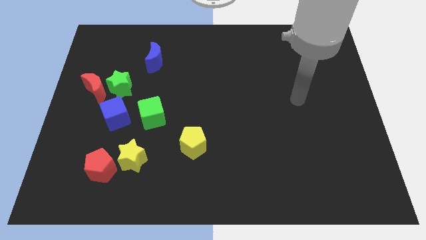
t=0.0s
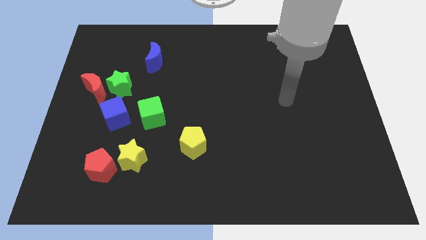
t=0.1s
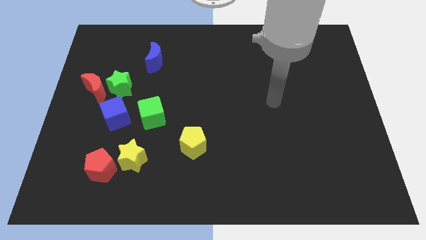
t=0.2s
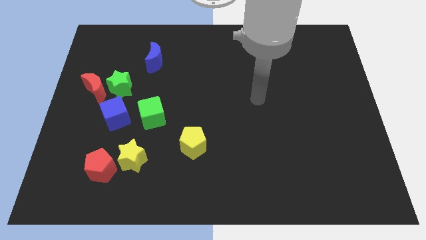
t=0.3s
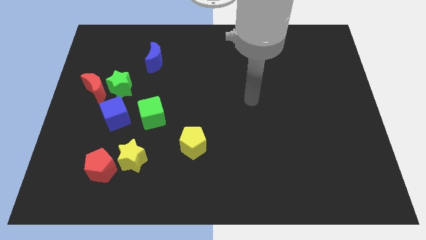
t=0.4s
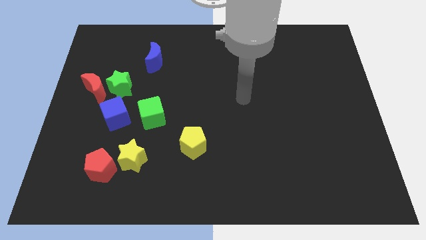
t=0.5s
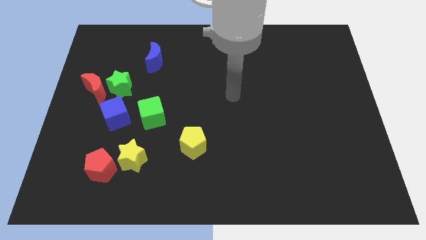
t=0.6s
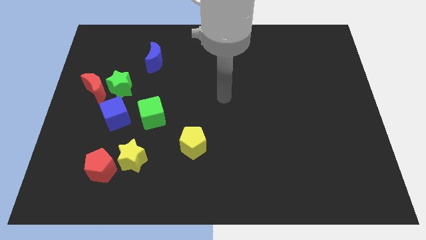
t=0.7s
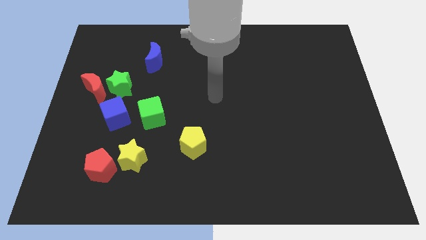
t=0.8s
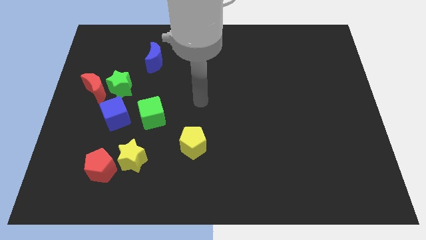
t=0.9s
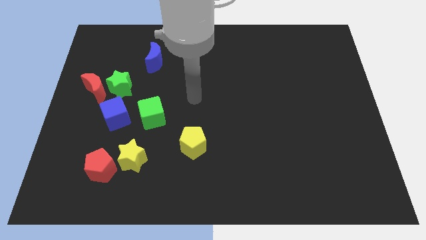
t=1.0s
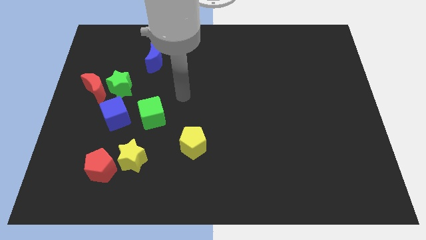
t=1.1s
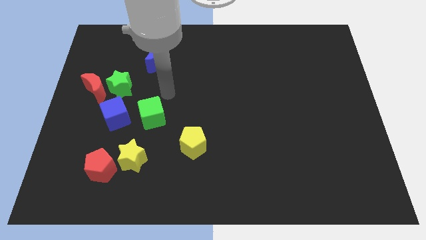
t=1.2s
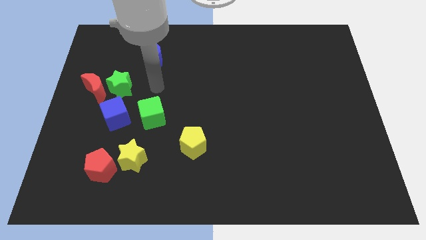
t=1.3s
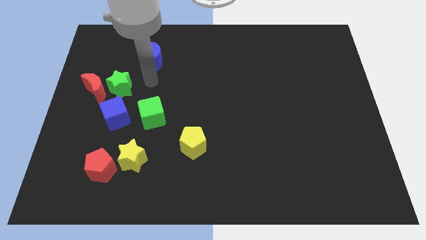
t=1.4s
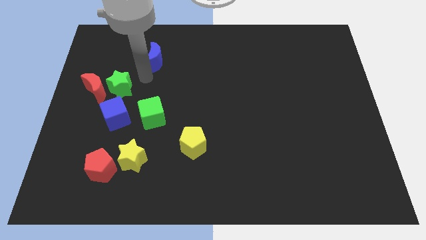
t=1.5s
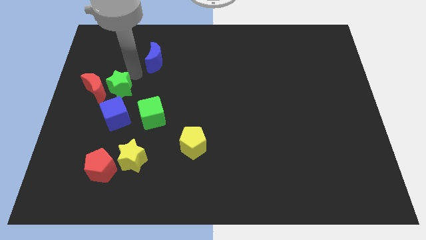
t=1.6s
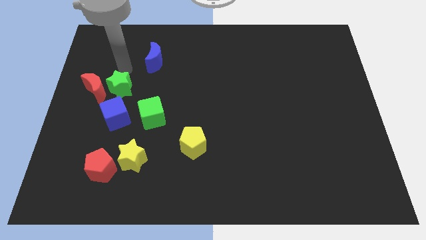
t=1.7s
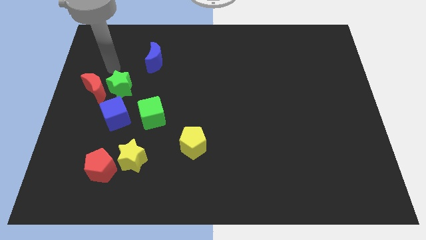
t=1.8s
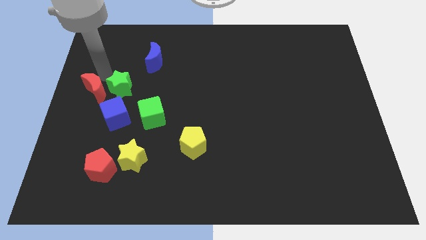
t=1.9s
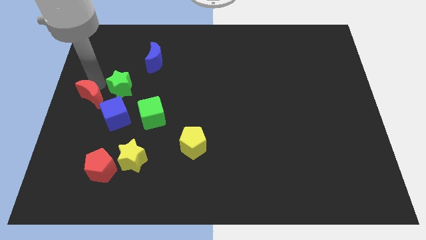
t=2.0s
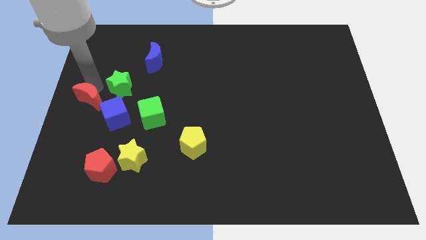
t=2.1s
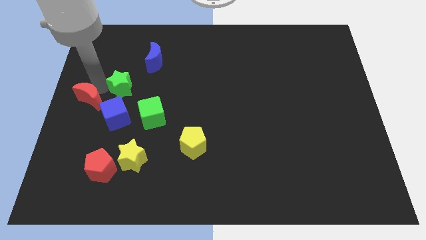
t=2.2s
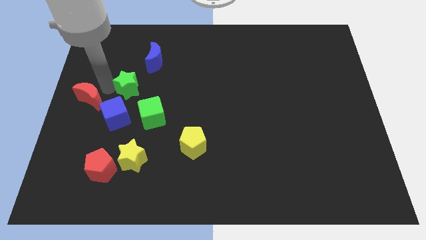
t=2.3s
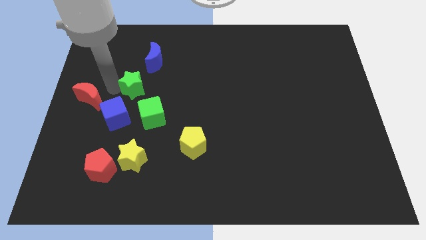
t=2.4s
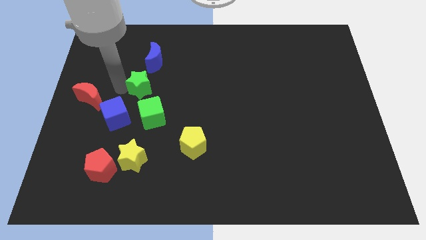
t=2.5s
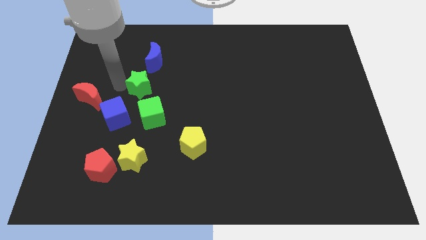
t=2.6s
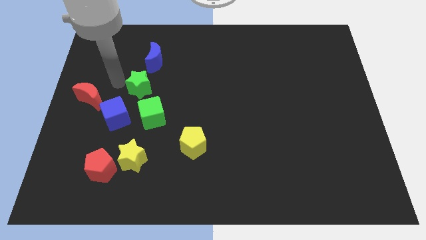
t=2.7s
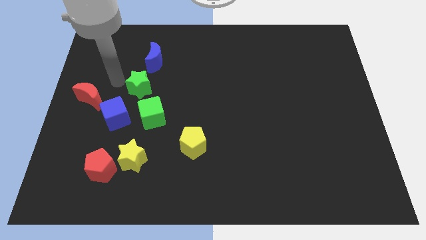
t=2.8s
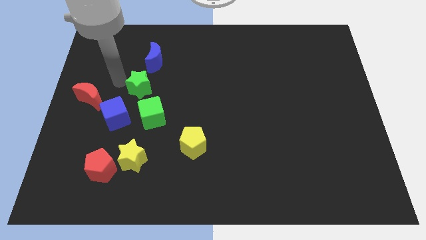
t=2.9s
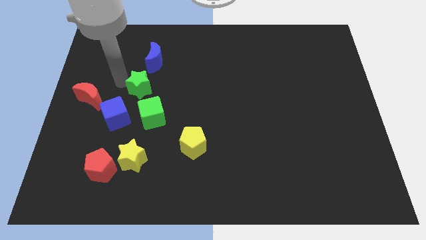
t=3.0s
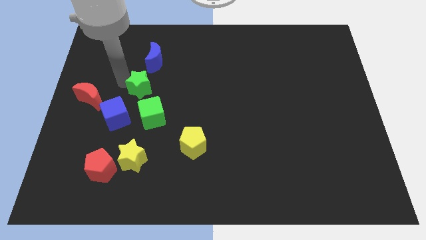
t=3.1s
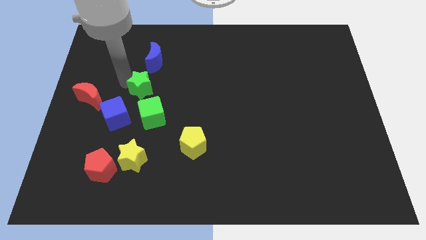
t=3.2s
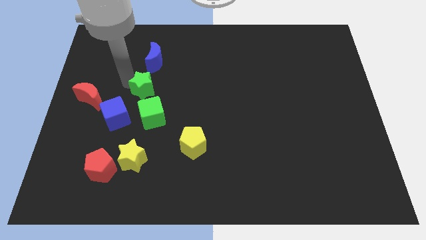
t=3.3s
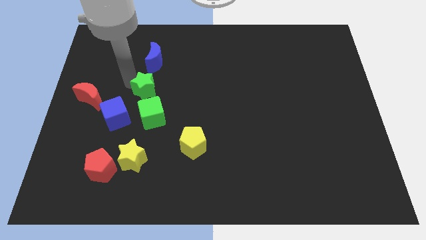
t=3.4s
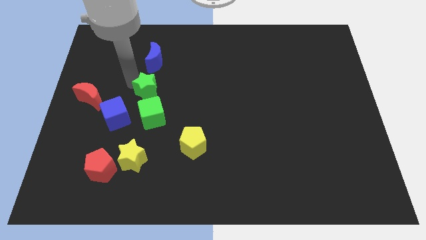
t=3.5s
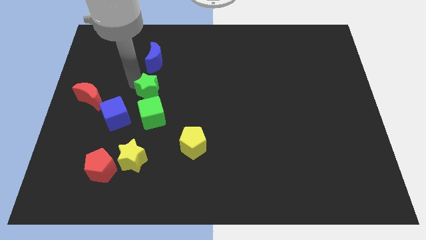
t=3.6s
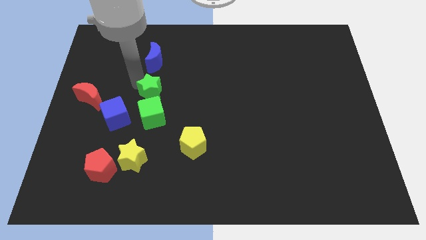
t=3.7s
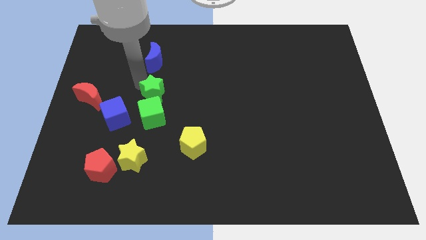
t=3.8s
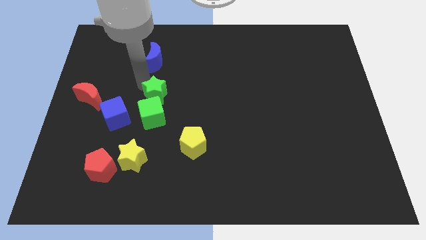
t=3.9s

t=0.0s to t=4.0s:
move the green star down and to the right slightly

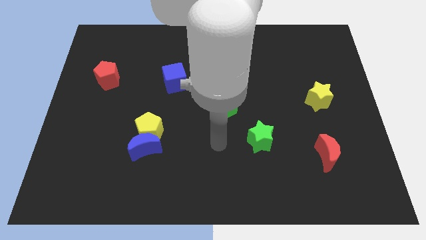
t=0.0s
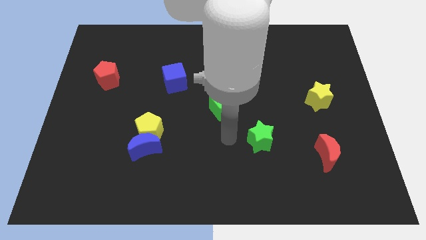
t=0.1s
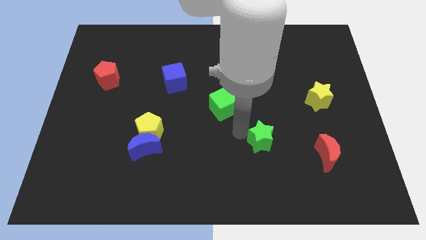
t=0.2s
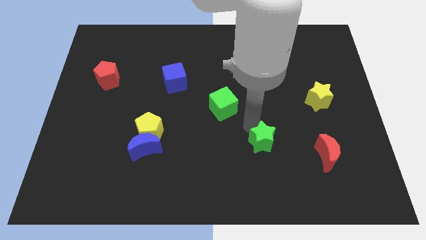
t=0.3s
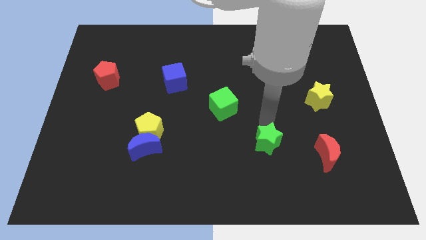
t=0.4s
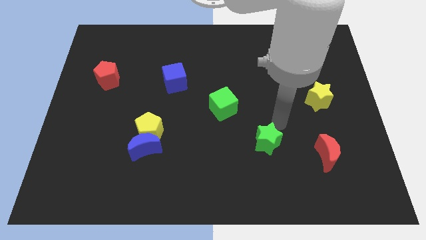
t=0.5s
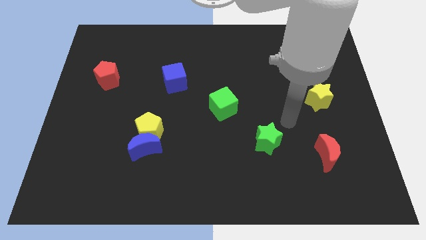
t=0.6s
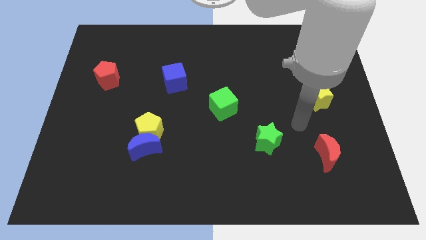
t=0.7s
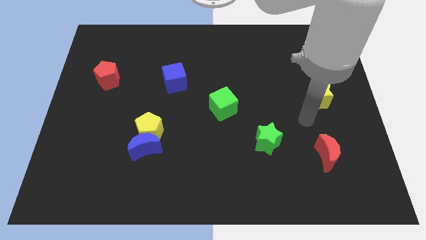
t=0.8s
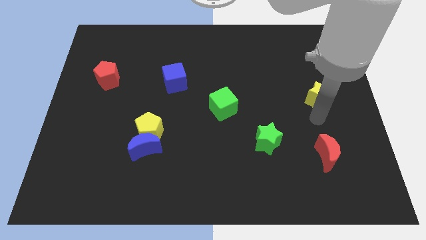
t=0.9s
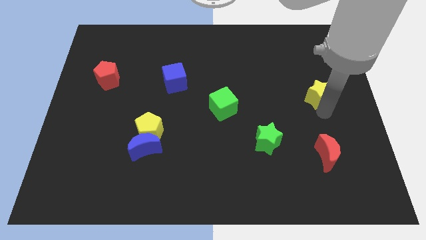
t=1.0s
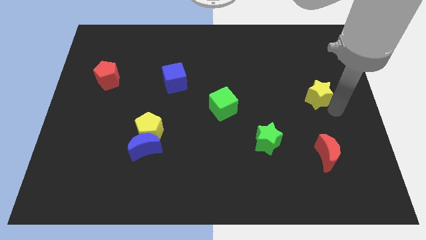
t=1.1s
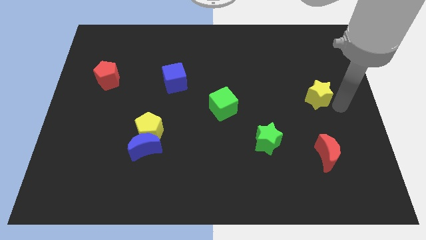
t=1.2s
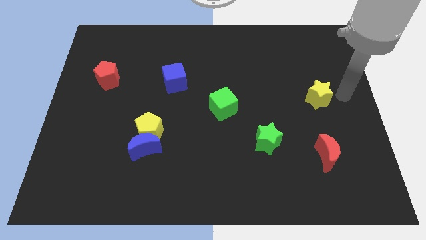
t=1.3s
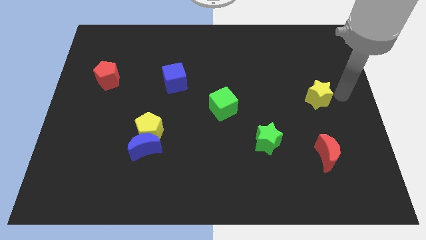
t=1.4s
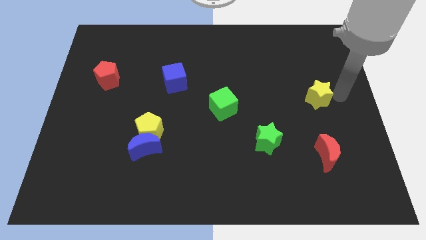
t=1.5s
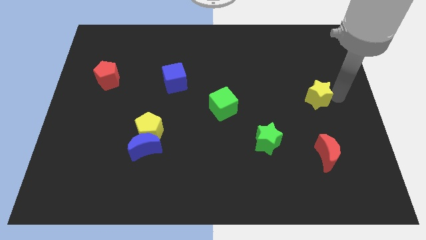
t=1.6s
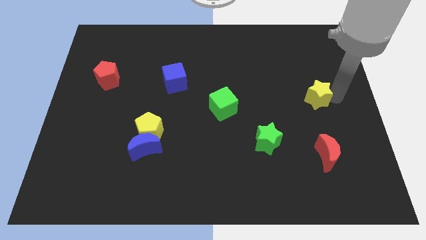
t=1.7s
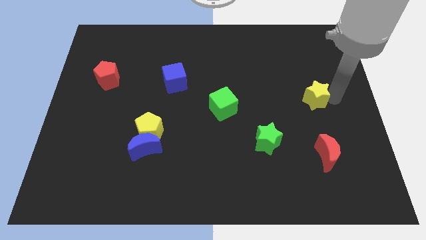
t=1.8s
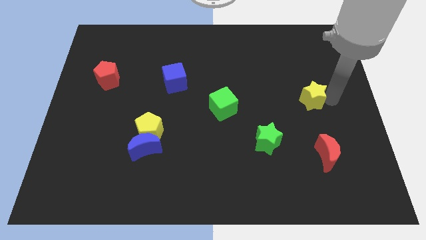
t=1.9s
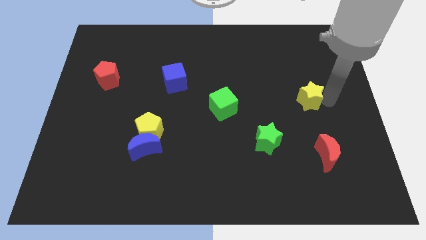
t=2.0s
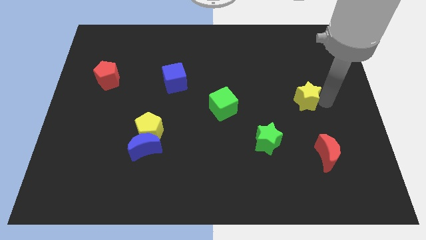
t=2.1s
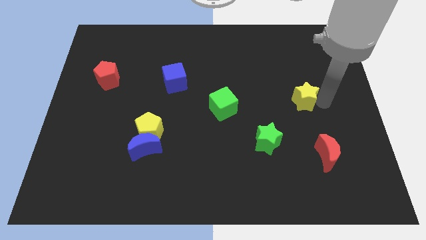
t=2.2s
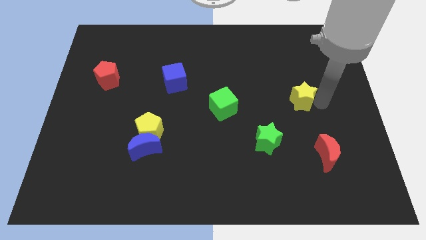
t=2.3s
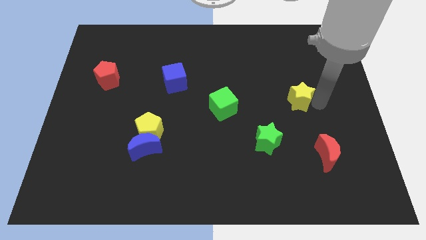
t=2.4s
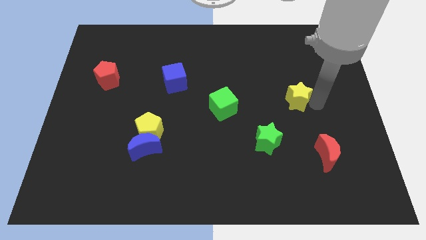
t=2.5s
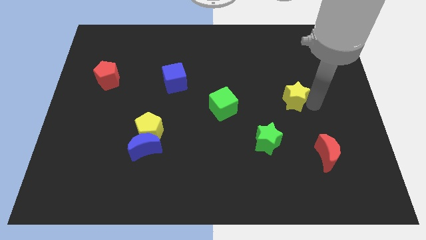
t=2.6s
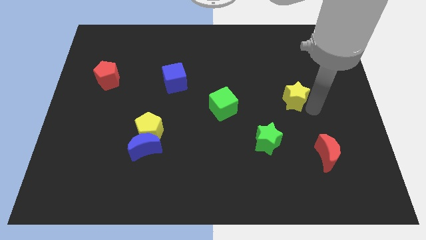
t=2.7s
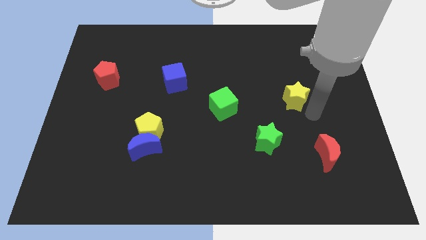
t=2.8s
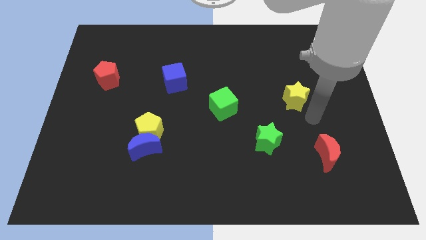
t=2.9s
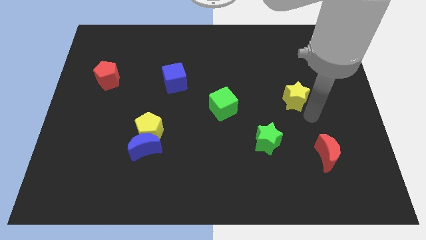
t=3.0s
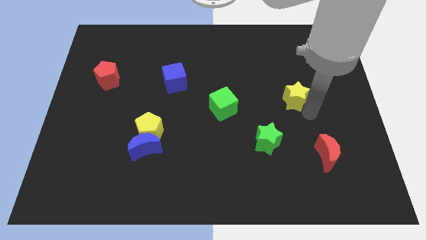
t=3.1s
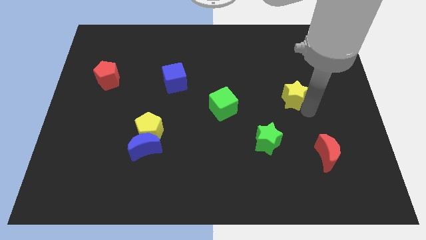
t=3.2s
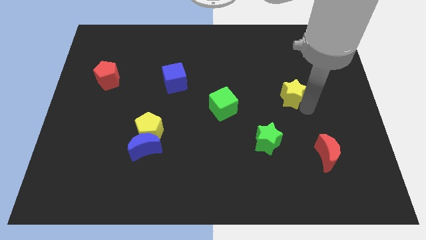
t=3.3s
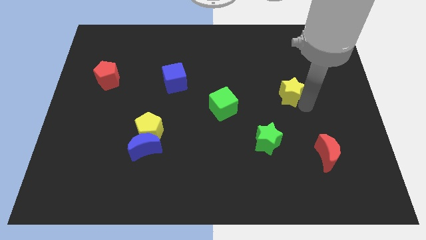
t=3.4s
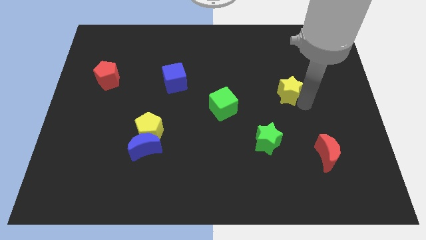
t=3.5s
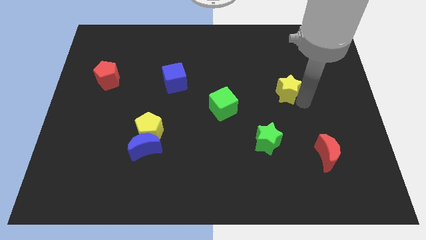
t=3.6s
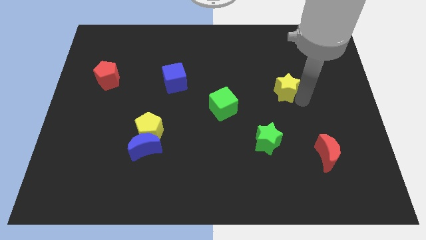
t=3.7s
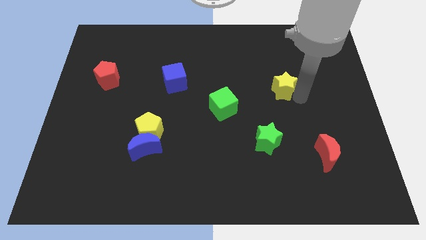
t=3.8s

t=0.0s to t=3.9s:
slightly move the yellow star diagonally upwards and to the left
